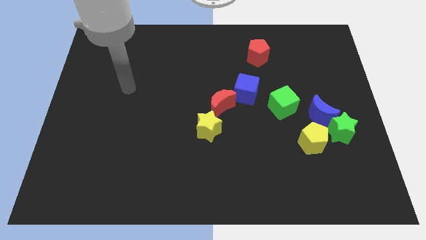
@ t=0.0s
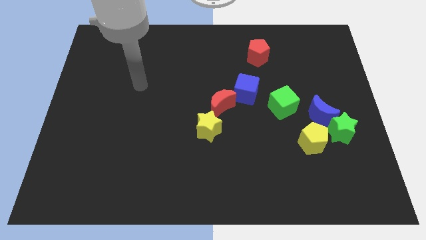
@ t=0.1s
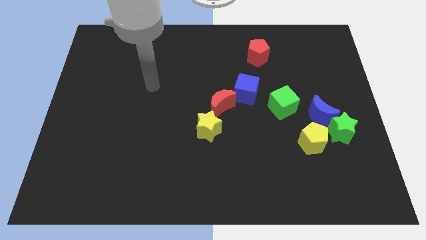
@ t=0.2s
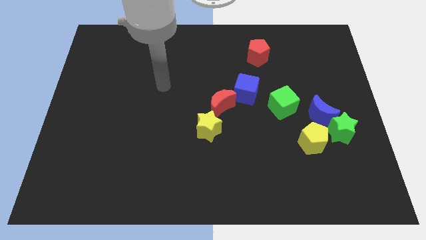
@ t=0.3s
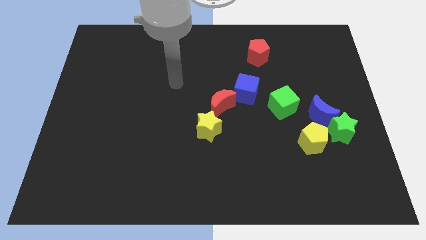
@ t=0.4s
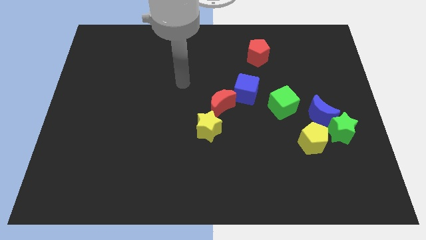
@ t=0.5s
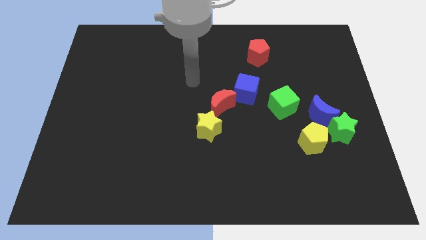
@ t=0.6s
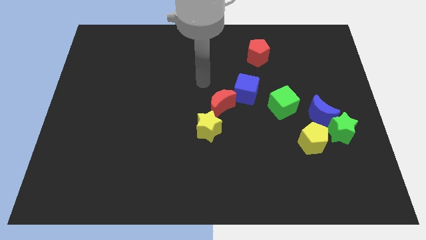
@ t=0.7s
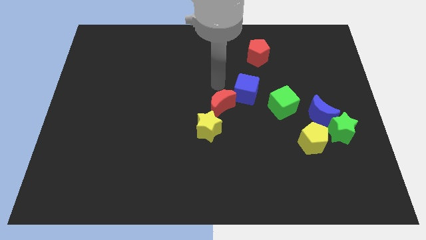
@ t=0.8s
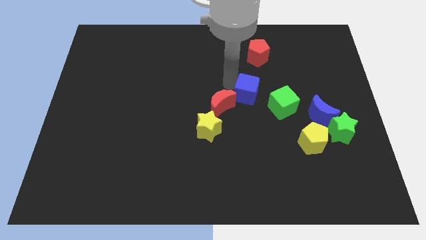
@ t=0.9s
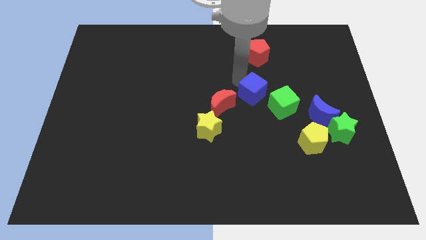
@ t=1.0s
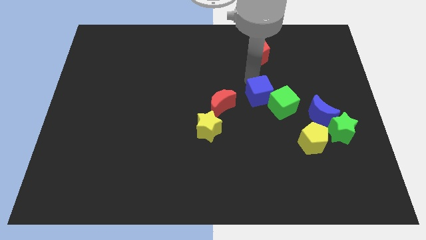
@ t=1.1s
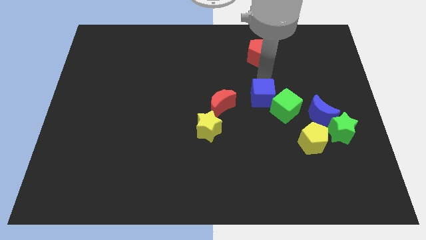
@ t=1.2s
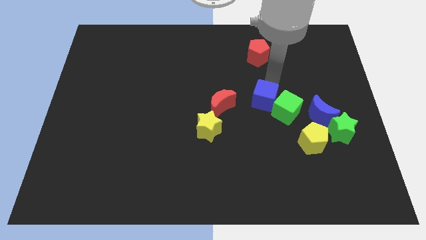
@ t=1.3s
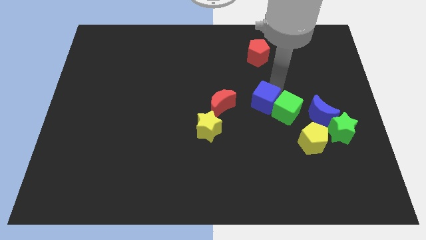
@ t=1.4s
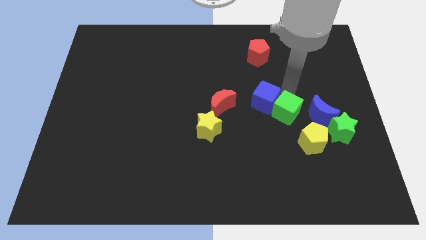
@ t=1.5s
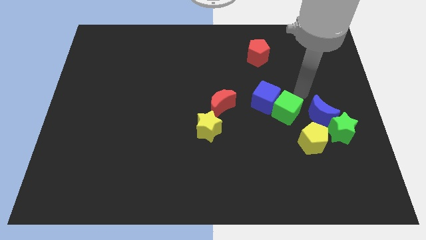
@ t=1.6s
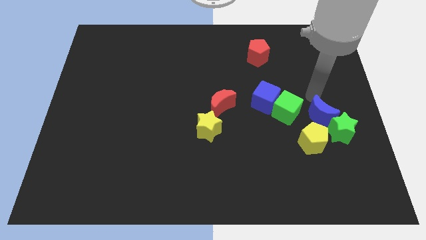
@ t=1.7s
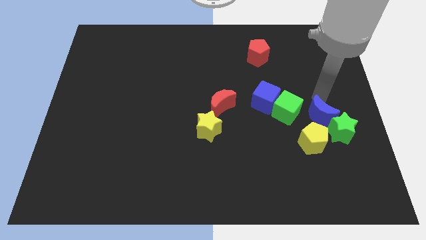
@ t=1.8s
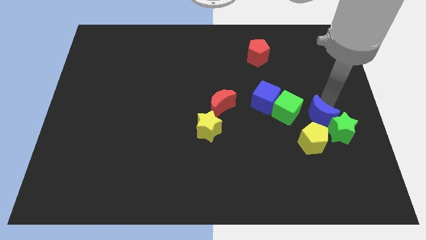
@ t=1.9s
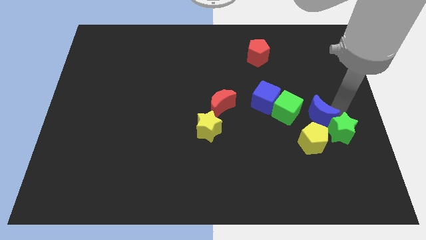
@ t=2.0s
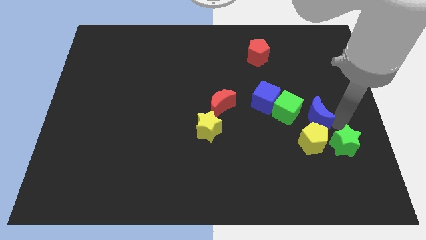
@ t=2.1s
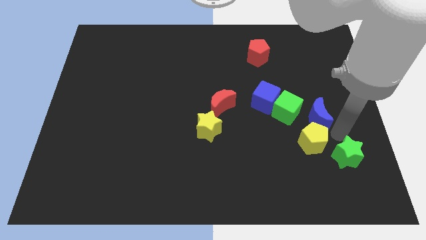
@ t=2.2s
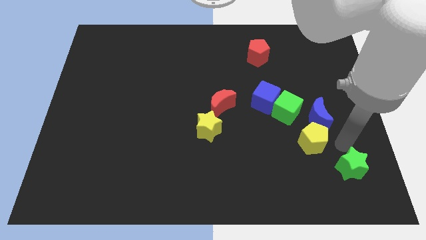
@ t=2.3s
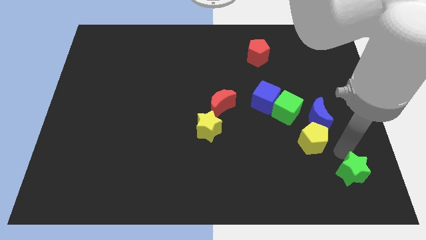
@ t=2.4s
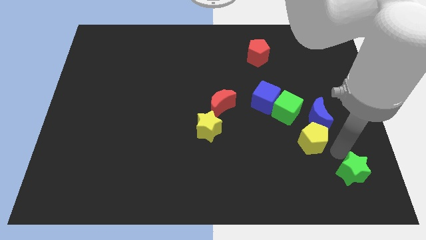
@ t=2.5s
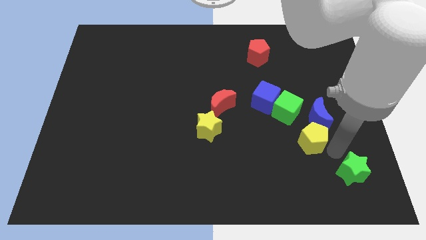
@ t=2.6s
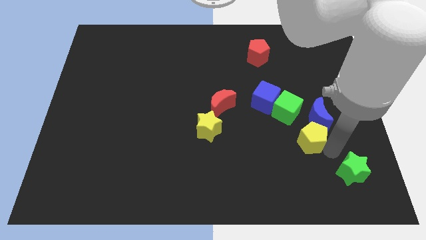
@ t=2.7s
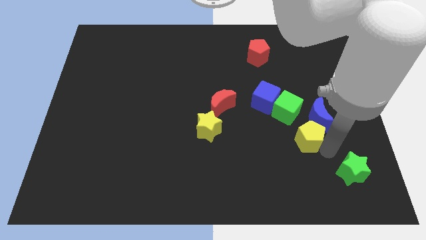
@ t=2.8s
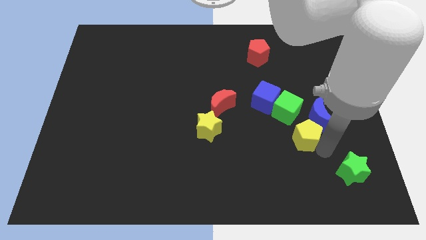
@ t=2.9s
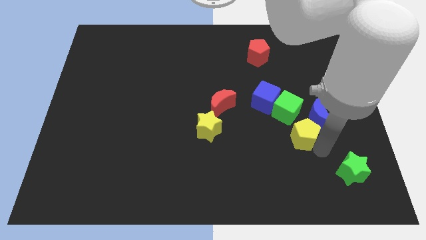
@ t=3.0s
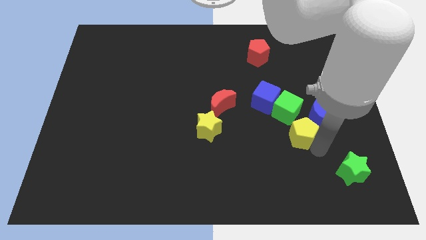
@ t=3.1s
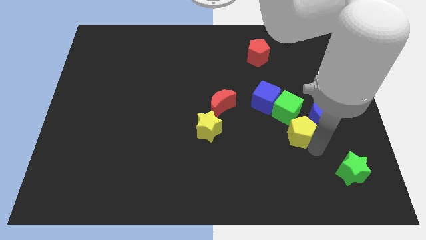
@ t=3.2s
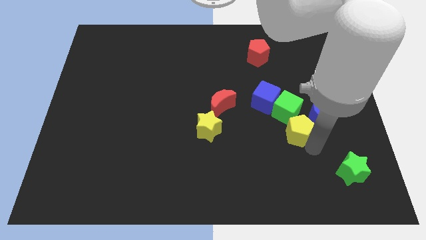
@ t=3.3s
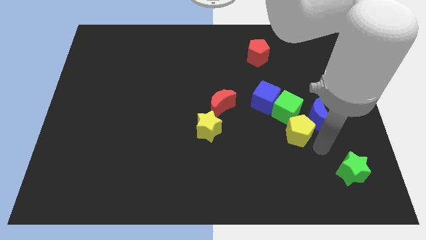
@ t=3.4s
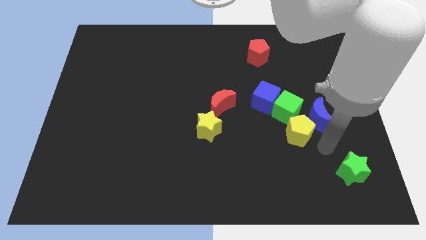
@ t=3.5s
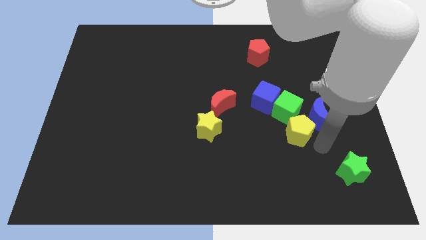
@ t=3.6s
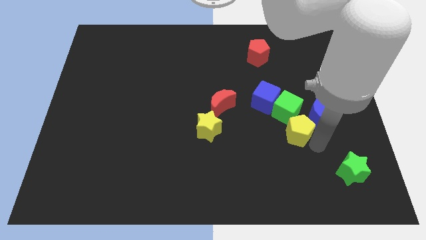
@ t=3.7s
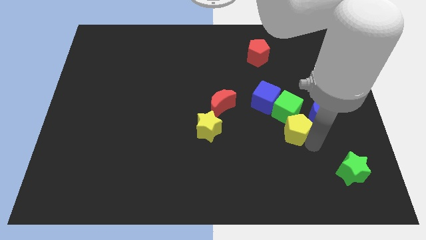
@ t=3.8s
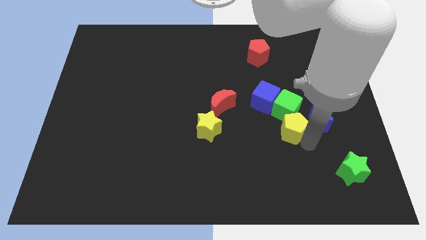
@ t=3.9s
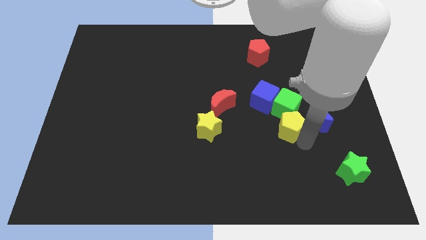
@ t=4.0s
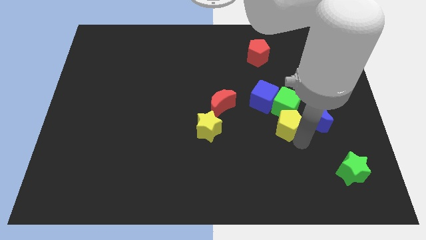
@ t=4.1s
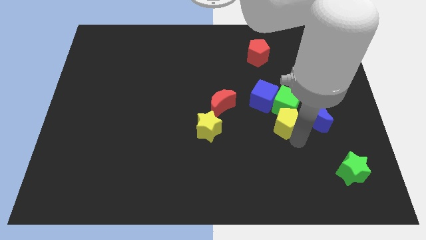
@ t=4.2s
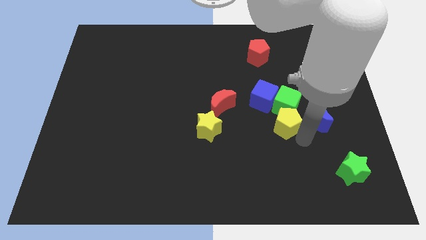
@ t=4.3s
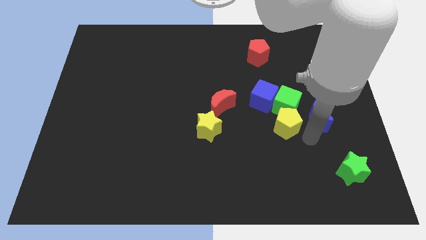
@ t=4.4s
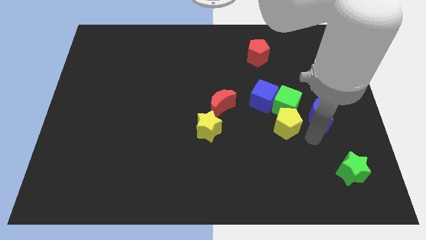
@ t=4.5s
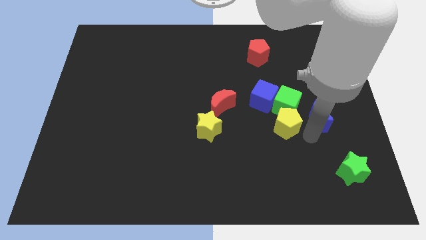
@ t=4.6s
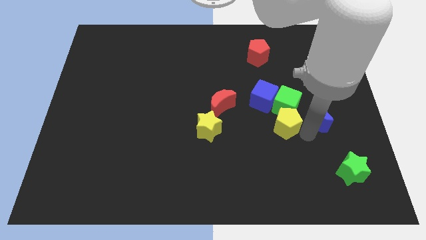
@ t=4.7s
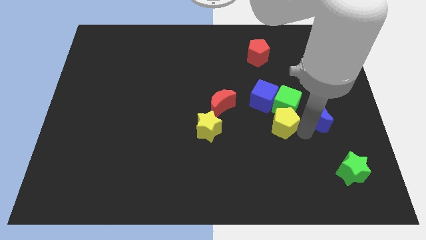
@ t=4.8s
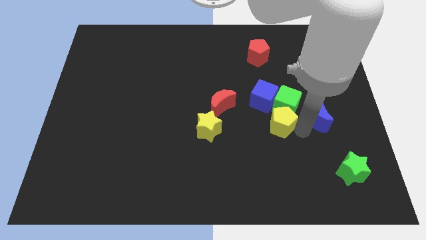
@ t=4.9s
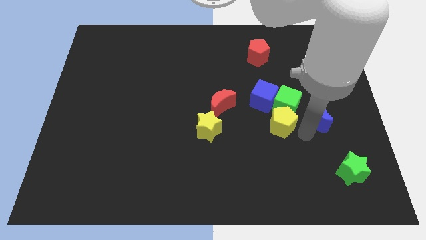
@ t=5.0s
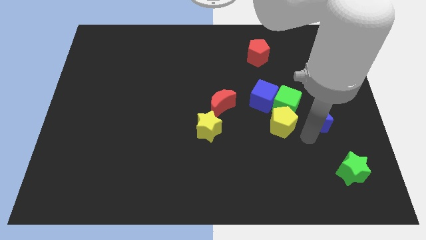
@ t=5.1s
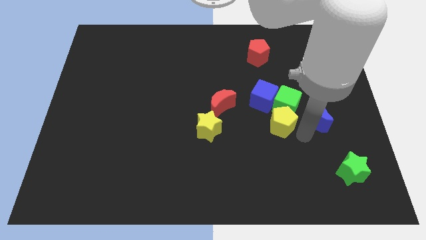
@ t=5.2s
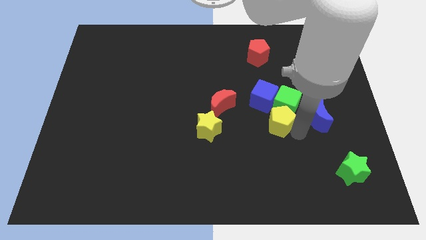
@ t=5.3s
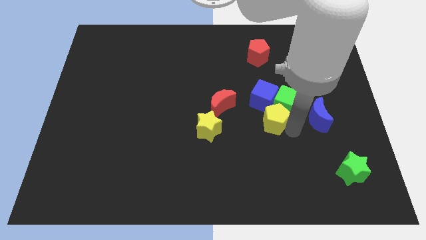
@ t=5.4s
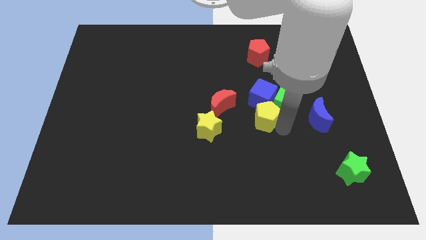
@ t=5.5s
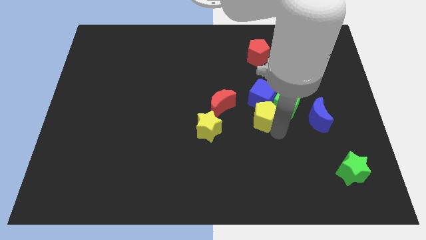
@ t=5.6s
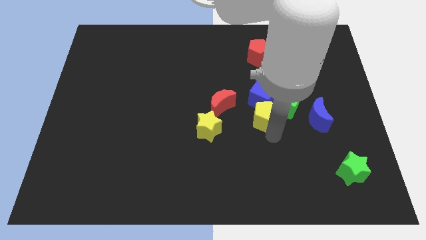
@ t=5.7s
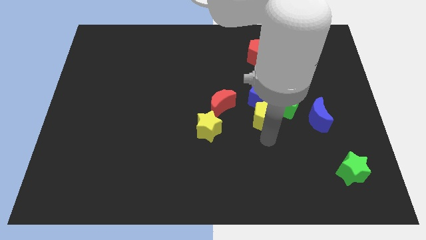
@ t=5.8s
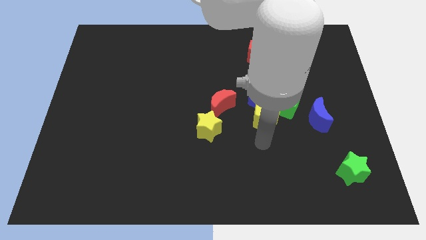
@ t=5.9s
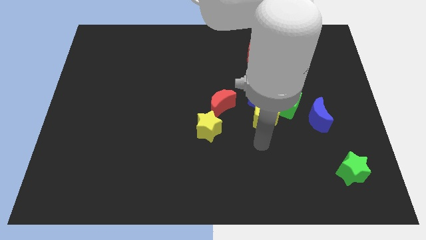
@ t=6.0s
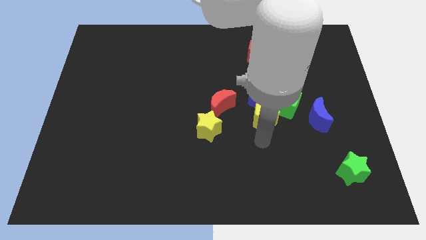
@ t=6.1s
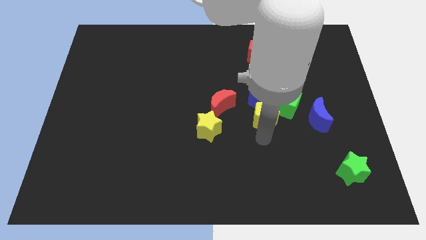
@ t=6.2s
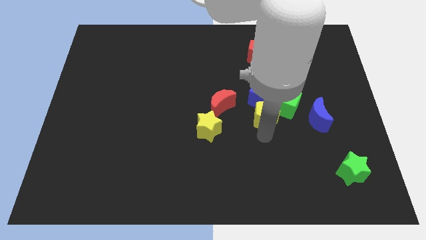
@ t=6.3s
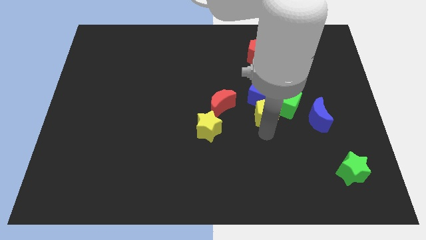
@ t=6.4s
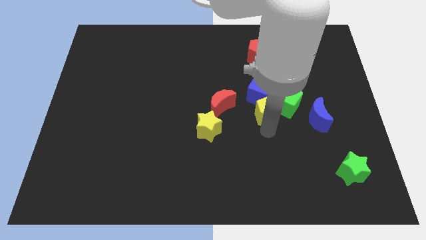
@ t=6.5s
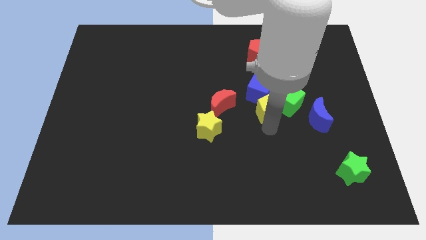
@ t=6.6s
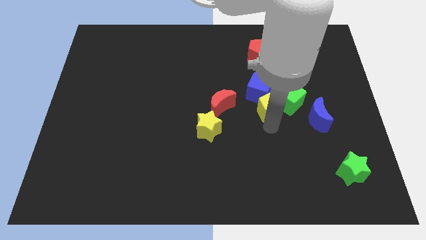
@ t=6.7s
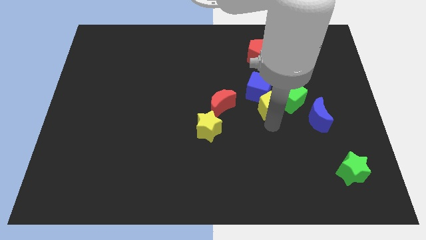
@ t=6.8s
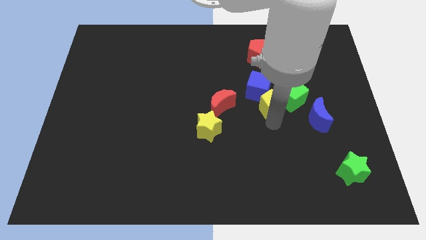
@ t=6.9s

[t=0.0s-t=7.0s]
slightly move the yellow pentagon up

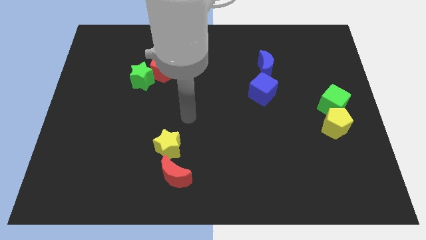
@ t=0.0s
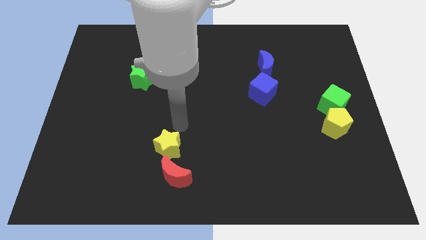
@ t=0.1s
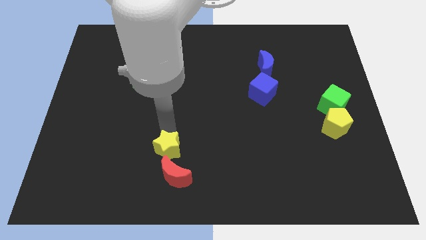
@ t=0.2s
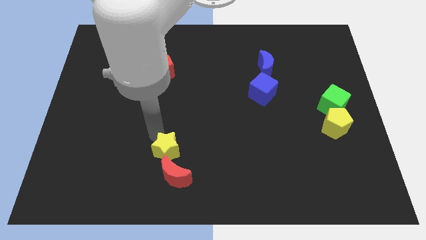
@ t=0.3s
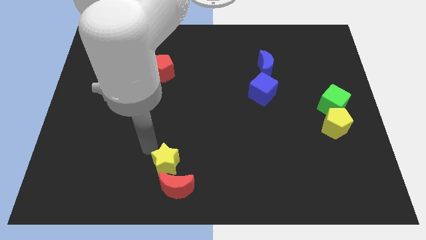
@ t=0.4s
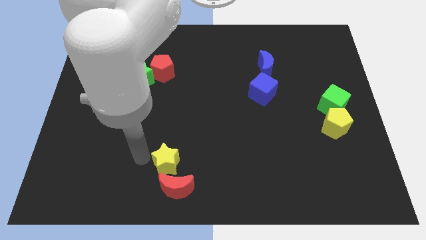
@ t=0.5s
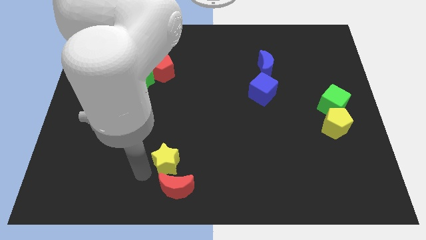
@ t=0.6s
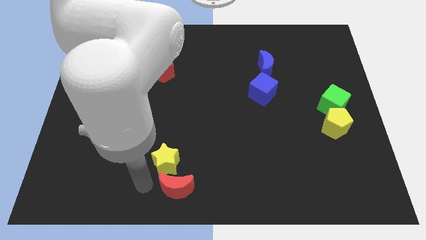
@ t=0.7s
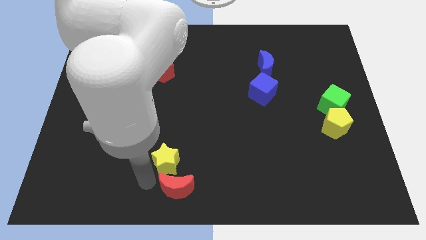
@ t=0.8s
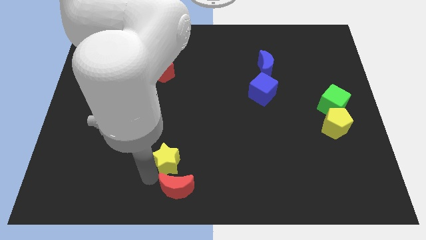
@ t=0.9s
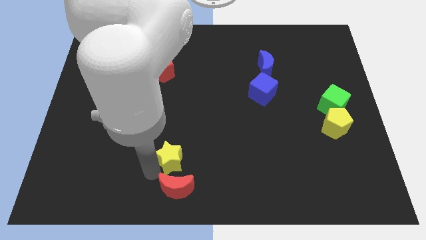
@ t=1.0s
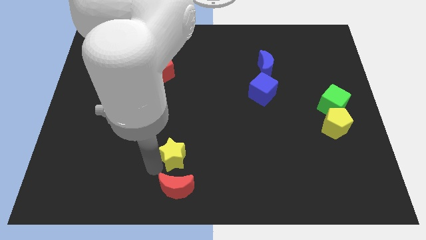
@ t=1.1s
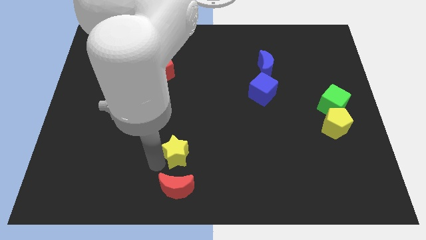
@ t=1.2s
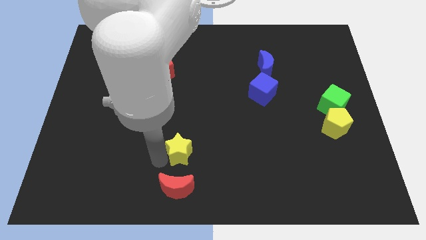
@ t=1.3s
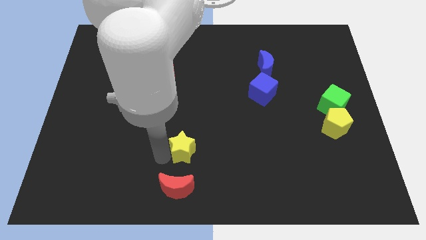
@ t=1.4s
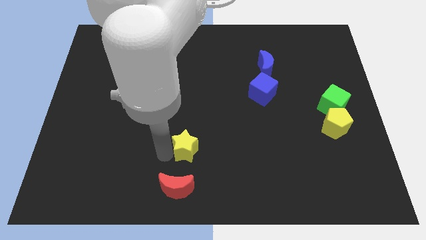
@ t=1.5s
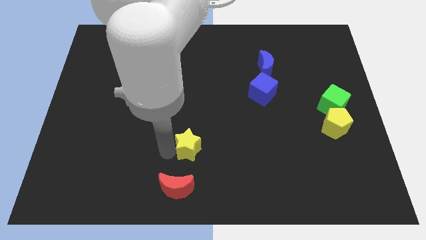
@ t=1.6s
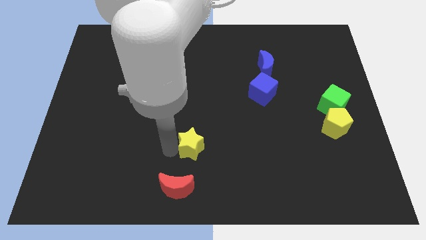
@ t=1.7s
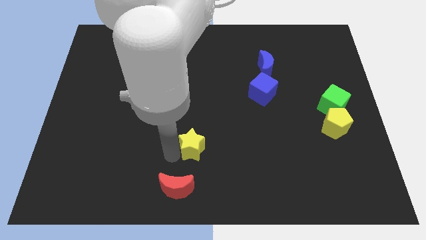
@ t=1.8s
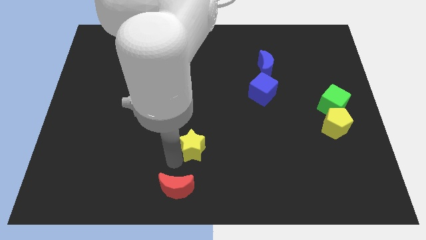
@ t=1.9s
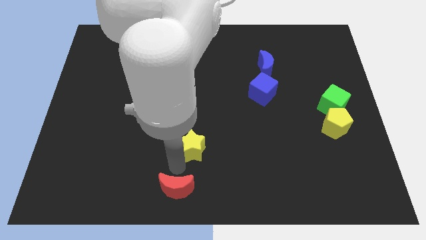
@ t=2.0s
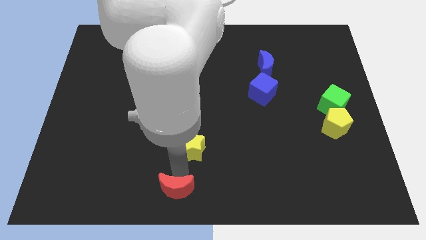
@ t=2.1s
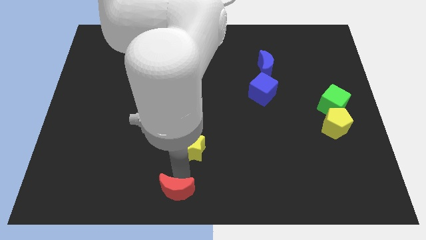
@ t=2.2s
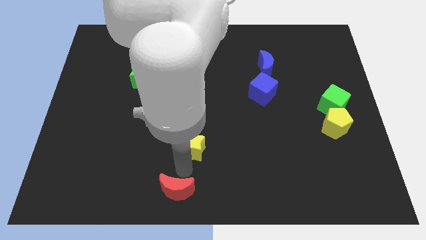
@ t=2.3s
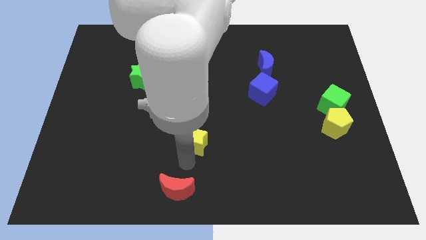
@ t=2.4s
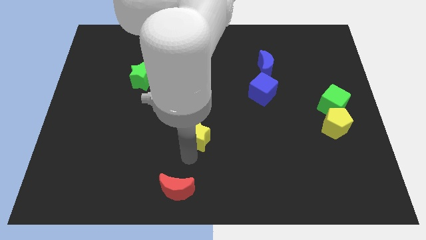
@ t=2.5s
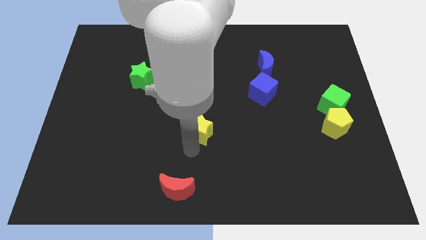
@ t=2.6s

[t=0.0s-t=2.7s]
slightly push the yellow star up and then to the right
